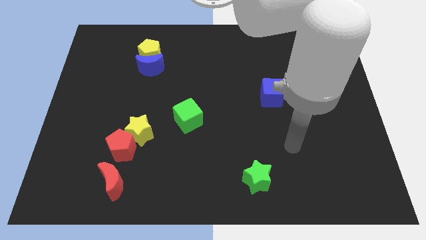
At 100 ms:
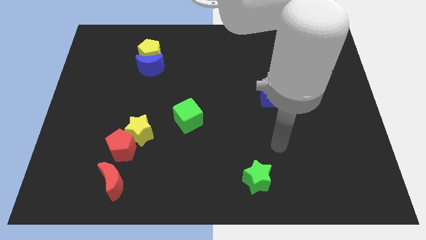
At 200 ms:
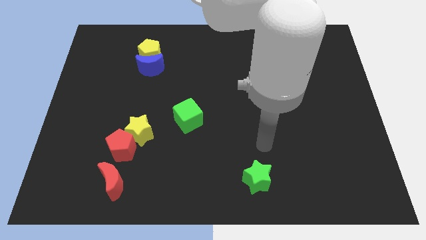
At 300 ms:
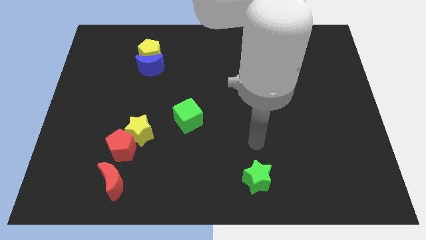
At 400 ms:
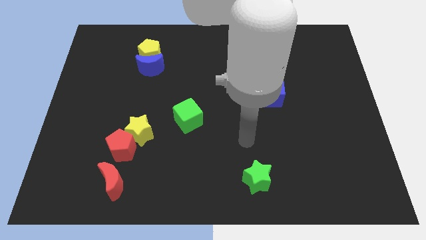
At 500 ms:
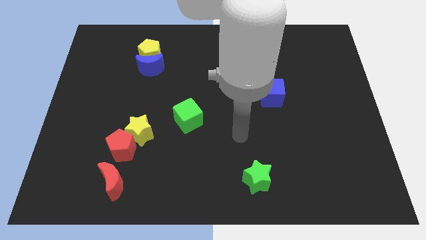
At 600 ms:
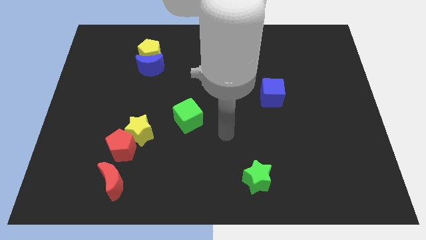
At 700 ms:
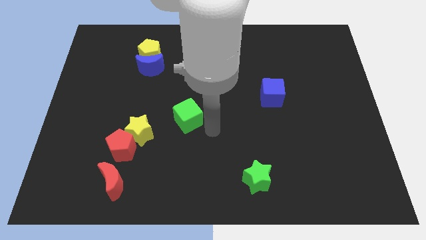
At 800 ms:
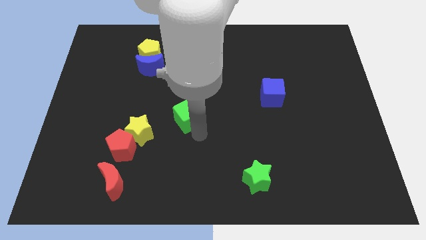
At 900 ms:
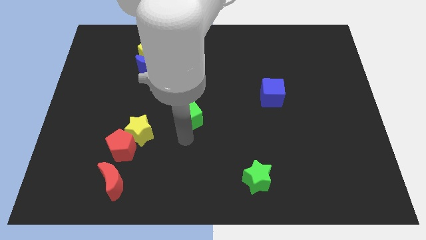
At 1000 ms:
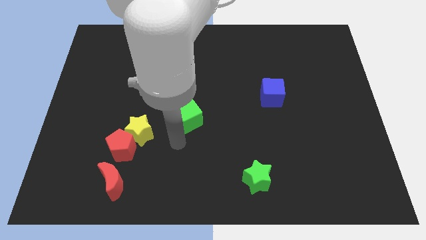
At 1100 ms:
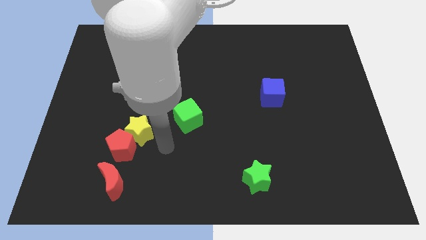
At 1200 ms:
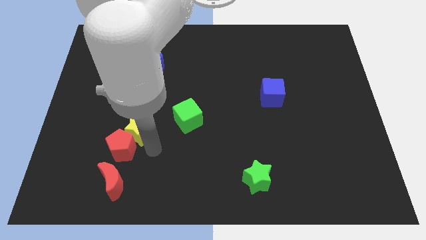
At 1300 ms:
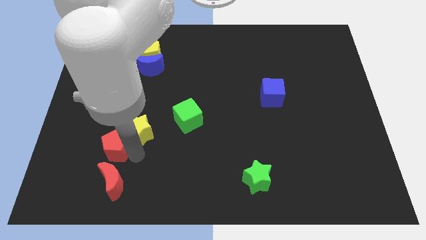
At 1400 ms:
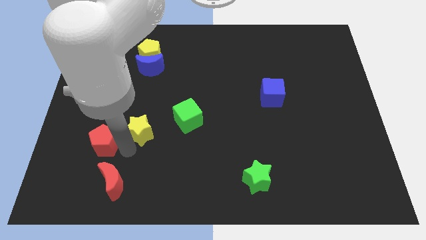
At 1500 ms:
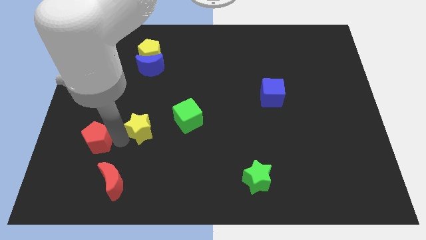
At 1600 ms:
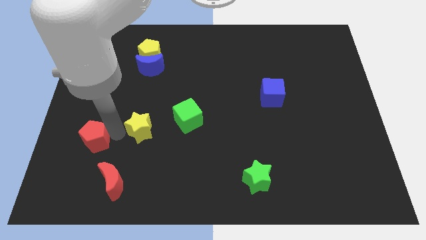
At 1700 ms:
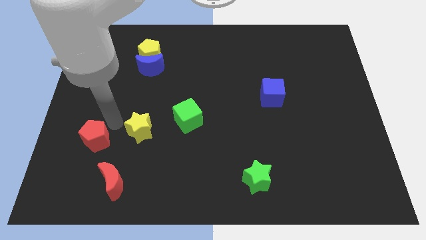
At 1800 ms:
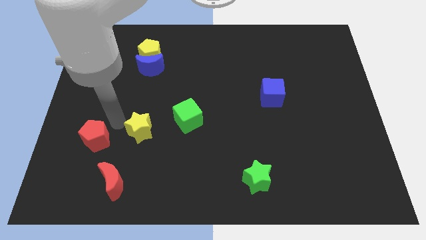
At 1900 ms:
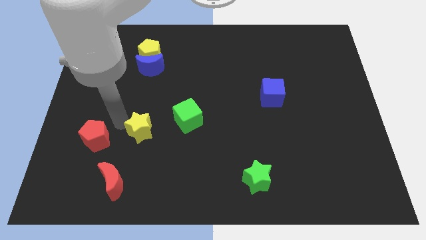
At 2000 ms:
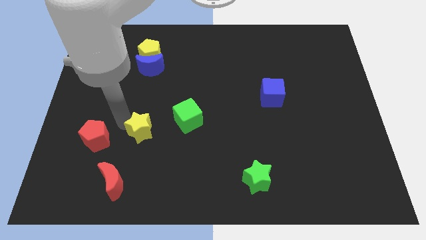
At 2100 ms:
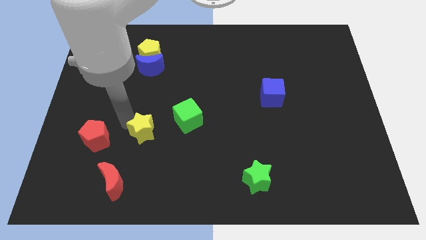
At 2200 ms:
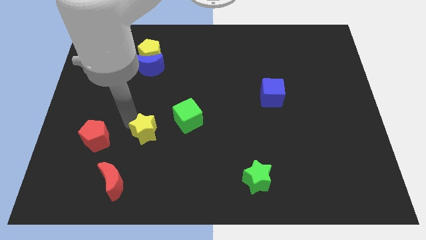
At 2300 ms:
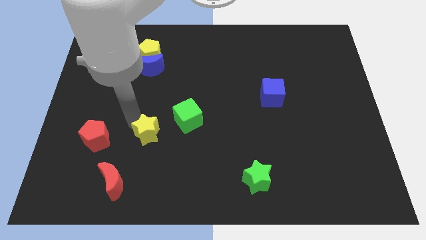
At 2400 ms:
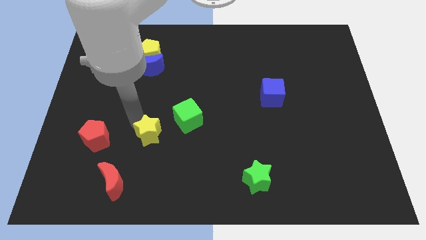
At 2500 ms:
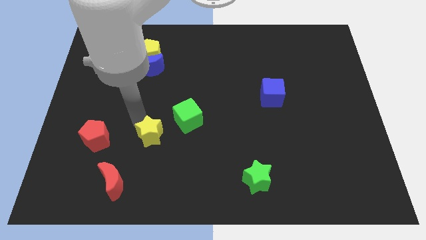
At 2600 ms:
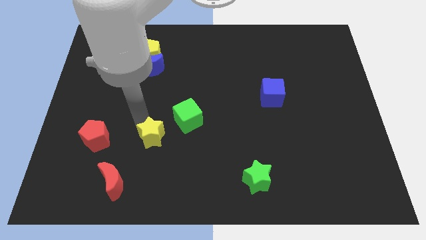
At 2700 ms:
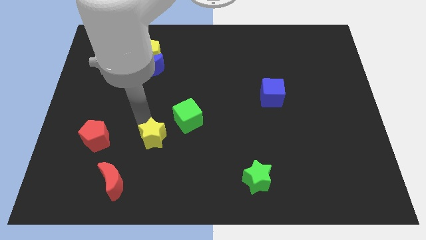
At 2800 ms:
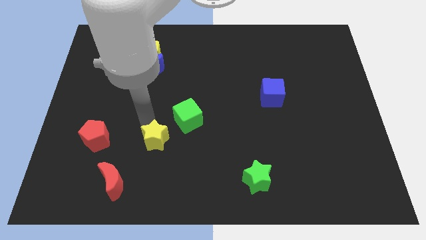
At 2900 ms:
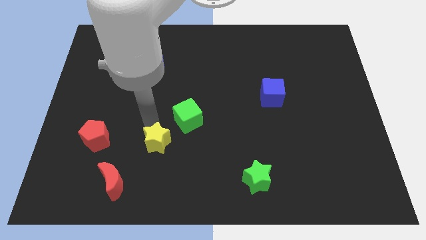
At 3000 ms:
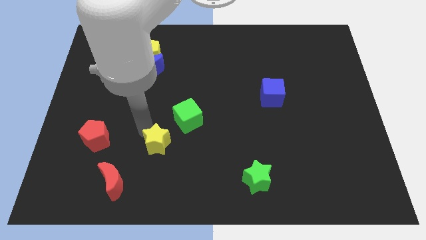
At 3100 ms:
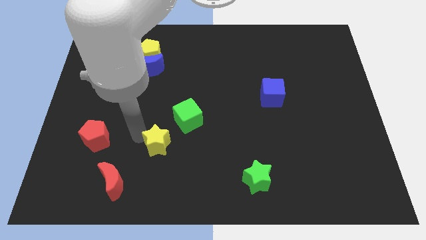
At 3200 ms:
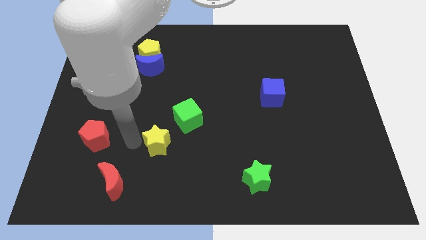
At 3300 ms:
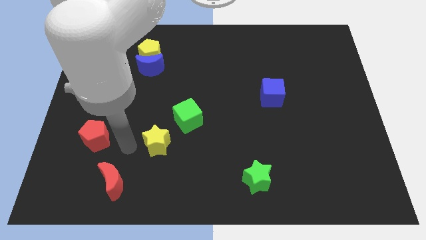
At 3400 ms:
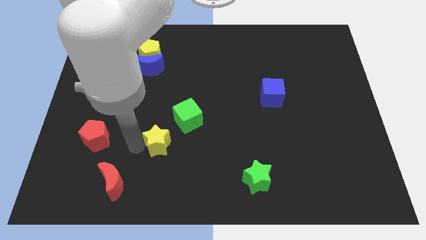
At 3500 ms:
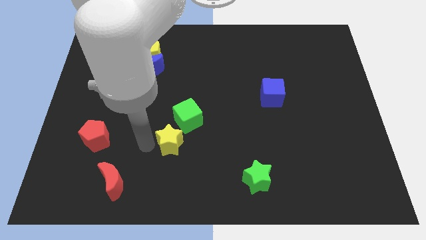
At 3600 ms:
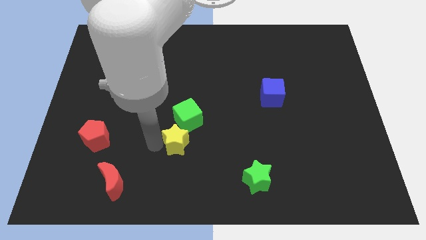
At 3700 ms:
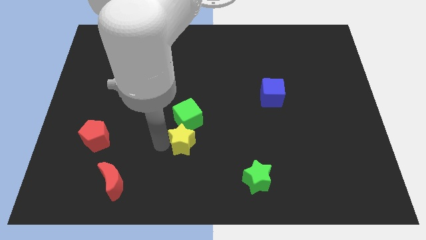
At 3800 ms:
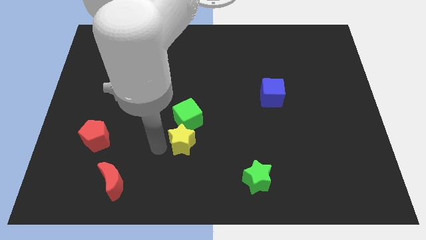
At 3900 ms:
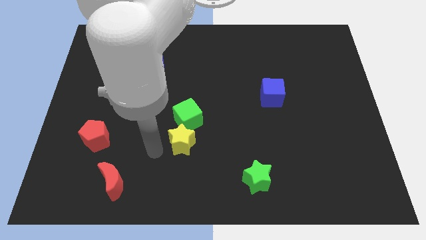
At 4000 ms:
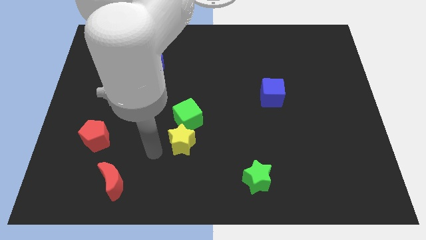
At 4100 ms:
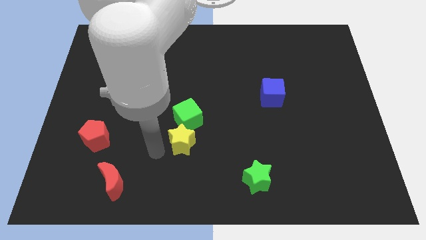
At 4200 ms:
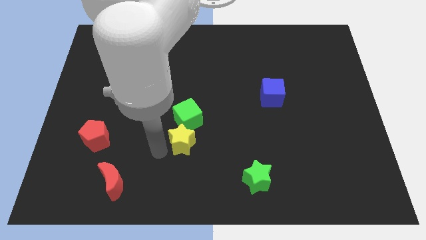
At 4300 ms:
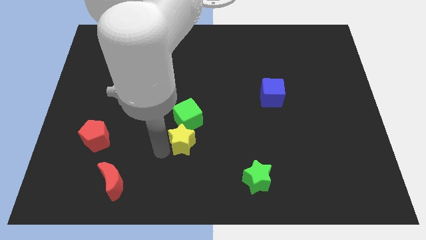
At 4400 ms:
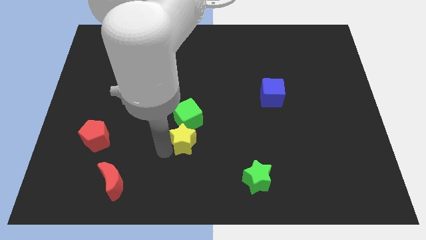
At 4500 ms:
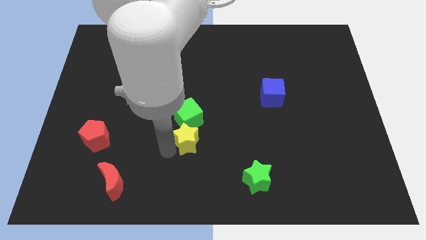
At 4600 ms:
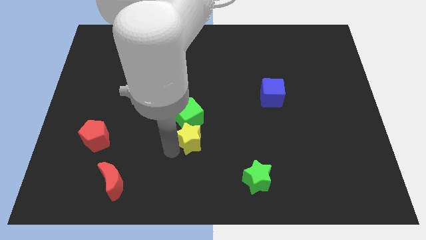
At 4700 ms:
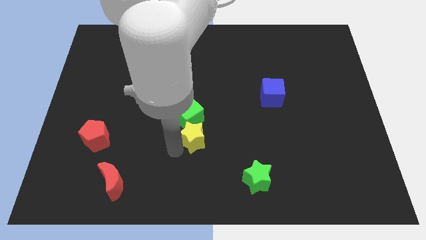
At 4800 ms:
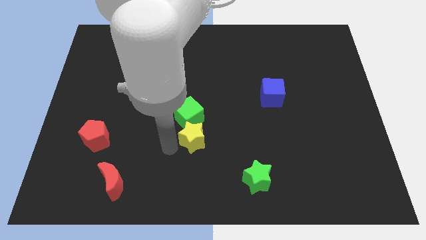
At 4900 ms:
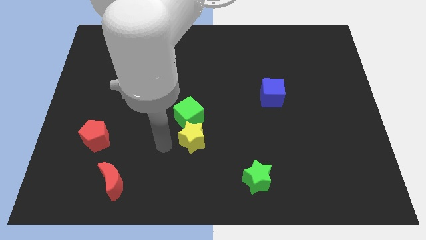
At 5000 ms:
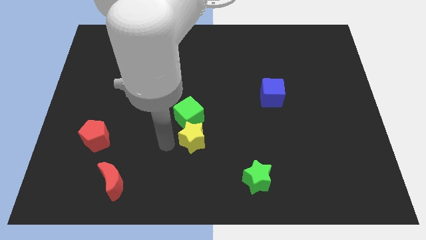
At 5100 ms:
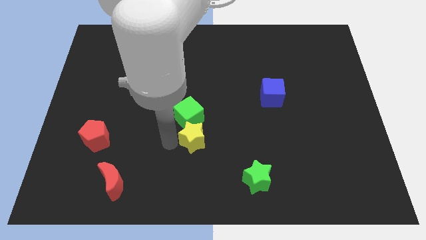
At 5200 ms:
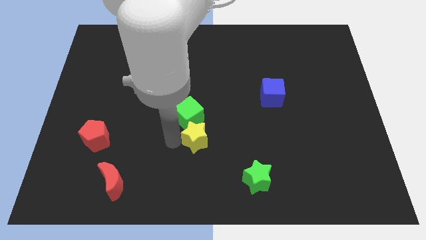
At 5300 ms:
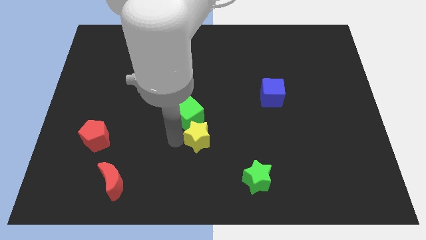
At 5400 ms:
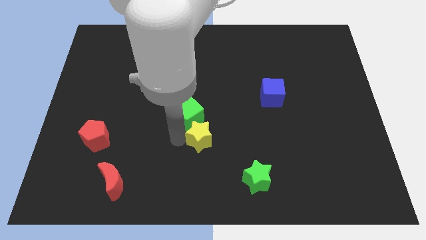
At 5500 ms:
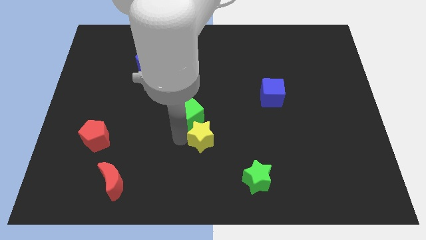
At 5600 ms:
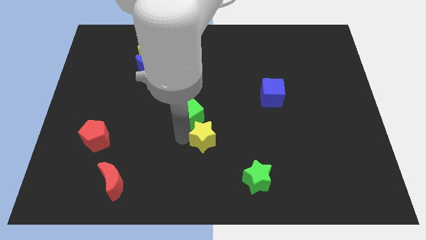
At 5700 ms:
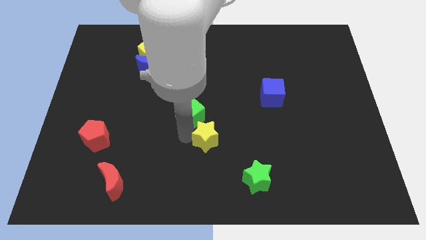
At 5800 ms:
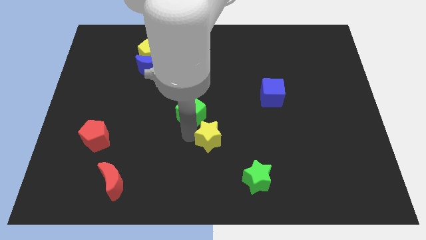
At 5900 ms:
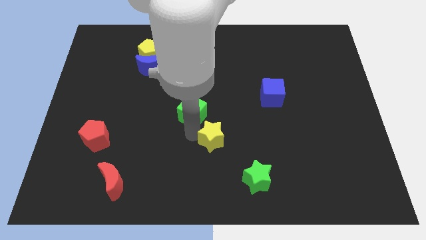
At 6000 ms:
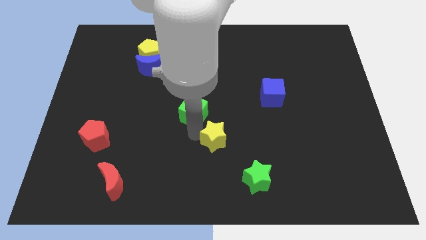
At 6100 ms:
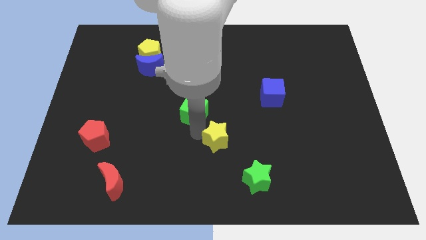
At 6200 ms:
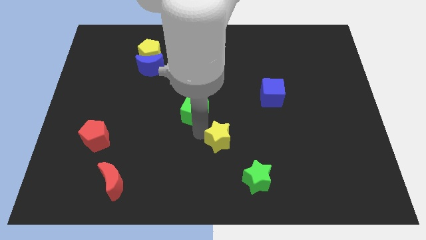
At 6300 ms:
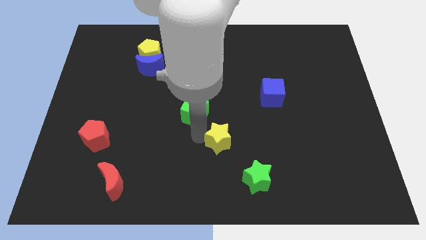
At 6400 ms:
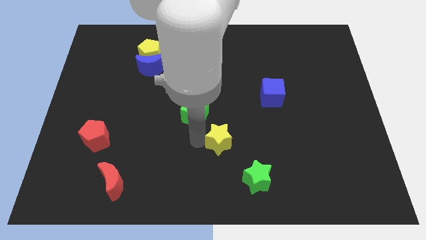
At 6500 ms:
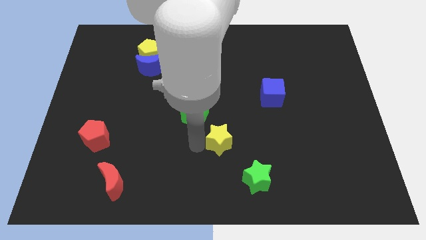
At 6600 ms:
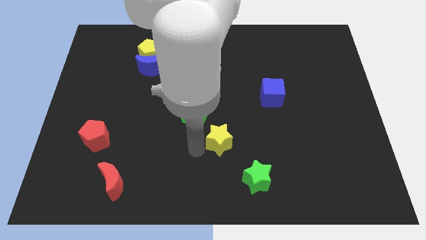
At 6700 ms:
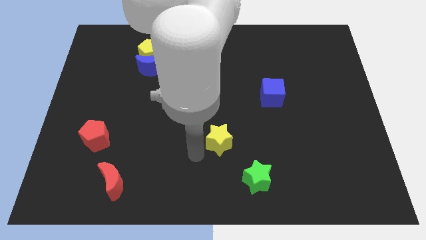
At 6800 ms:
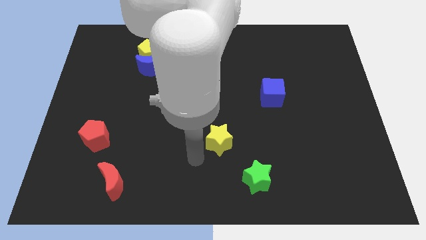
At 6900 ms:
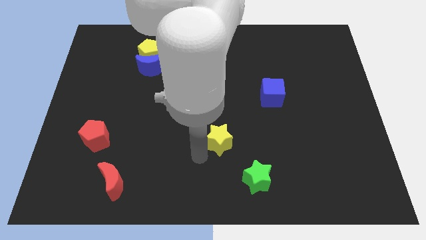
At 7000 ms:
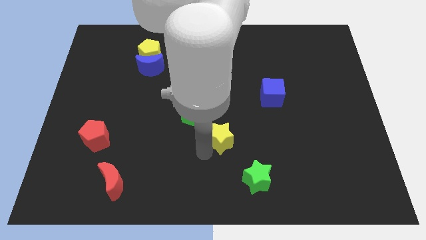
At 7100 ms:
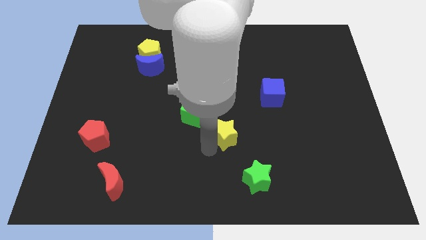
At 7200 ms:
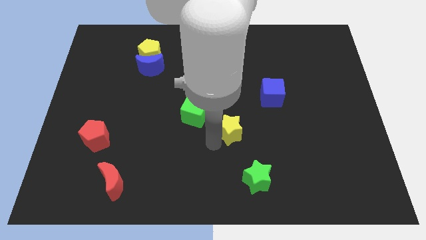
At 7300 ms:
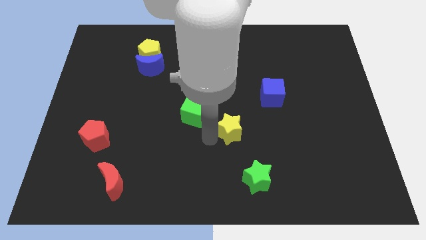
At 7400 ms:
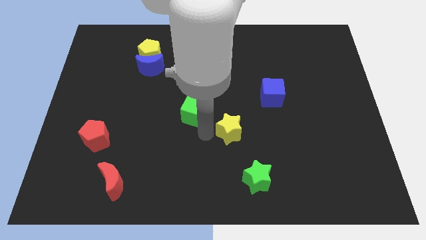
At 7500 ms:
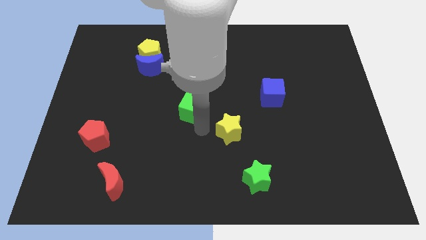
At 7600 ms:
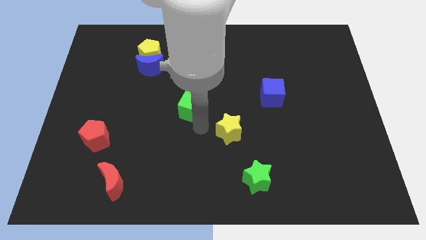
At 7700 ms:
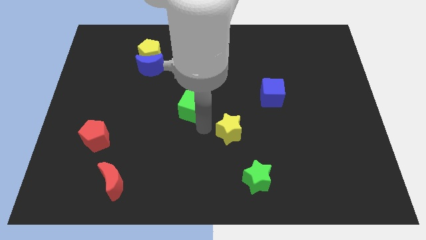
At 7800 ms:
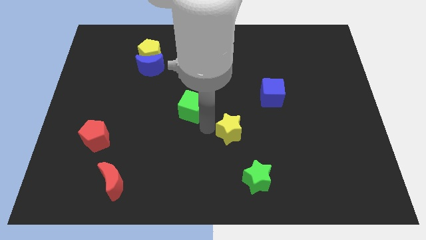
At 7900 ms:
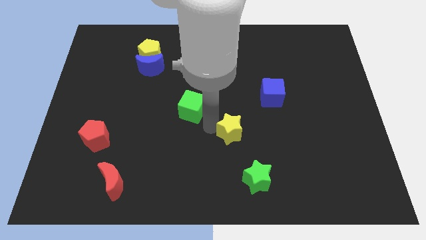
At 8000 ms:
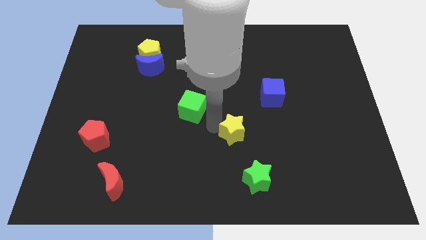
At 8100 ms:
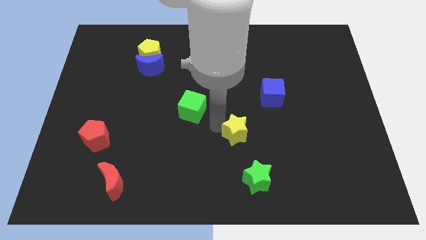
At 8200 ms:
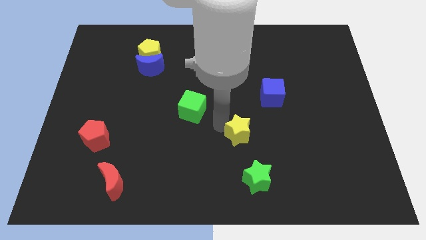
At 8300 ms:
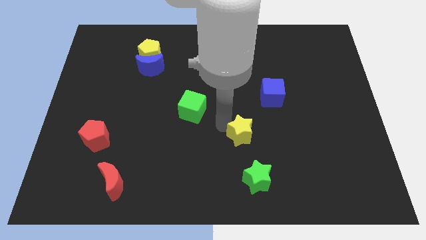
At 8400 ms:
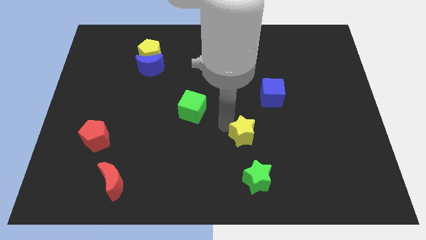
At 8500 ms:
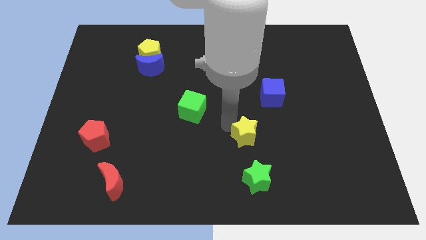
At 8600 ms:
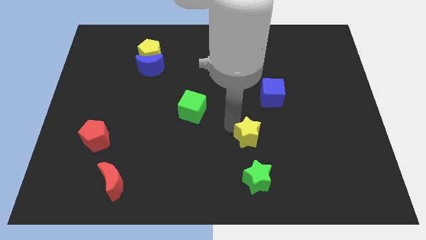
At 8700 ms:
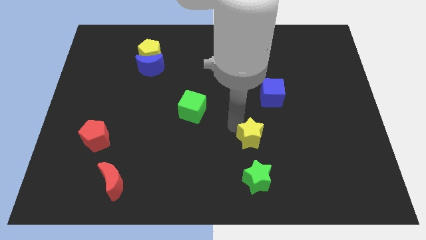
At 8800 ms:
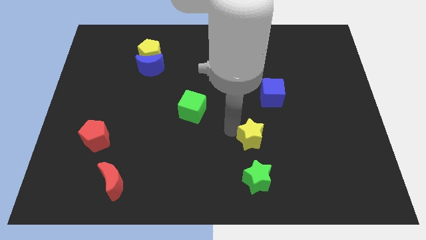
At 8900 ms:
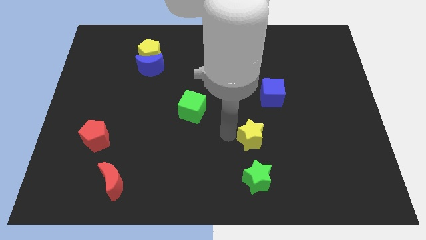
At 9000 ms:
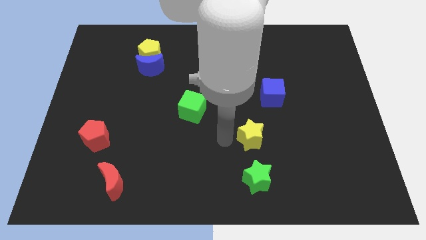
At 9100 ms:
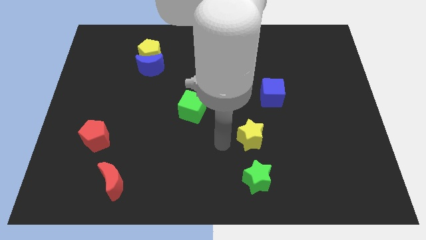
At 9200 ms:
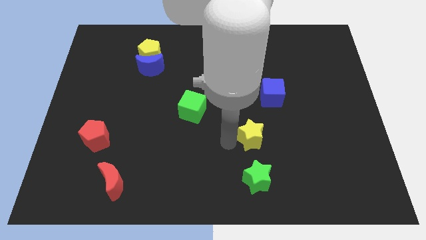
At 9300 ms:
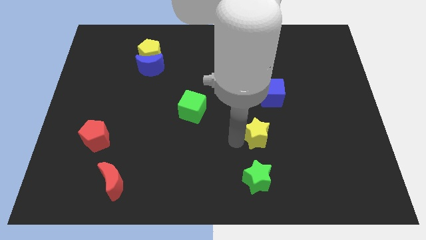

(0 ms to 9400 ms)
put the yellow star to the bottom side of the blue cube
